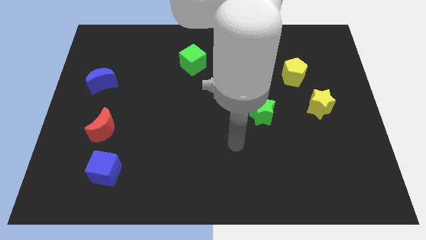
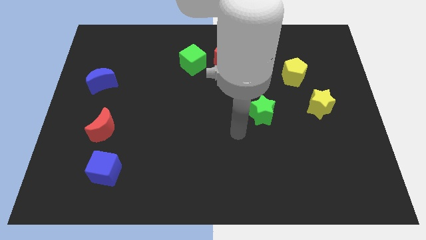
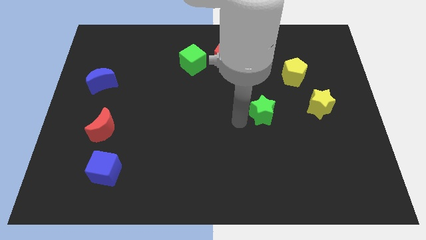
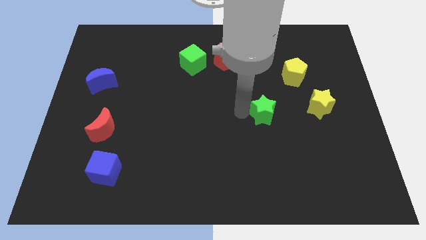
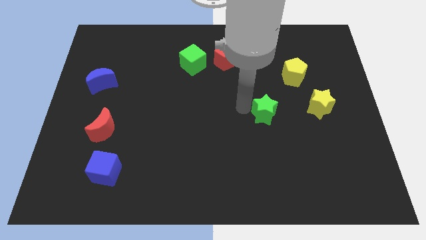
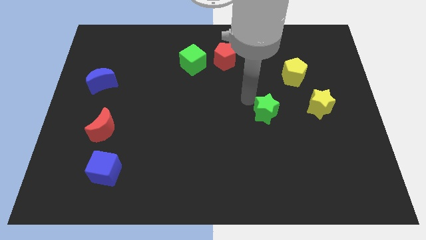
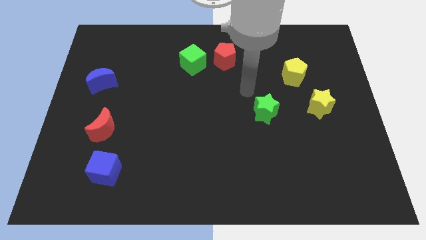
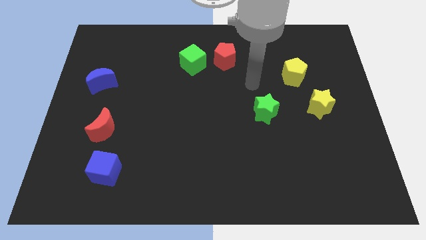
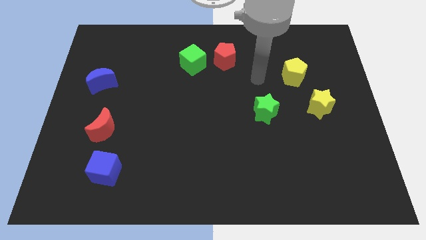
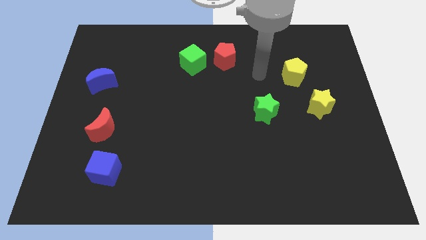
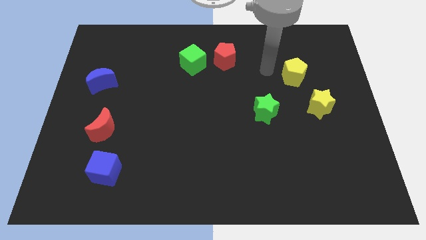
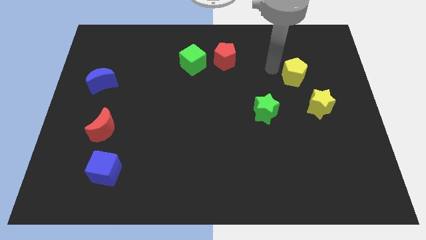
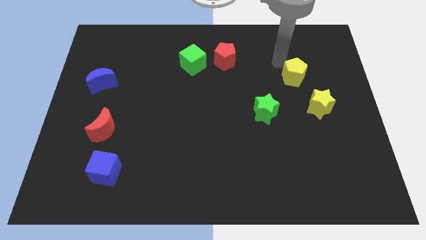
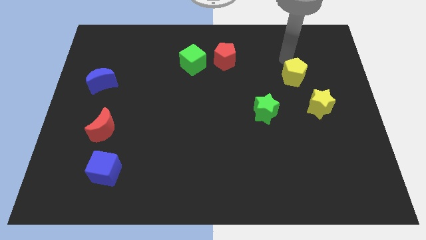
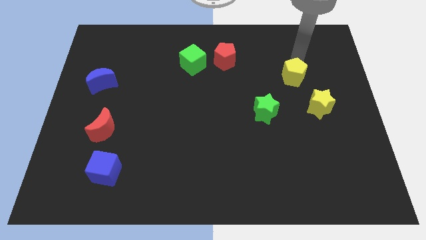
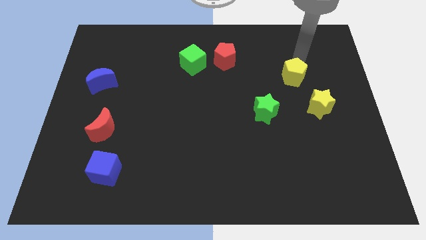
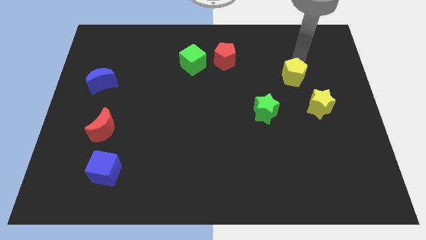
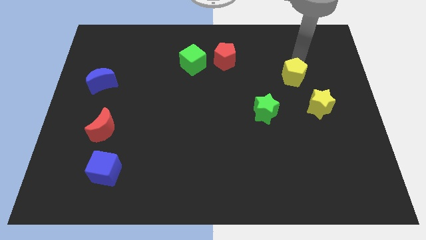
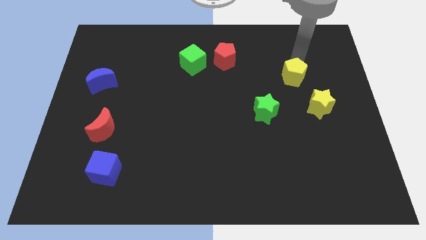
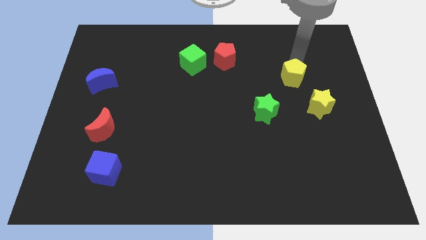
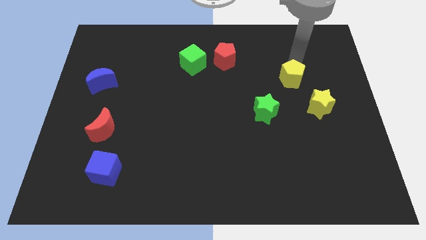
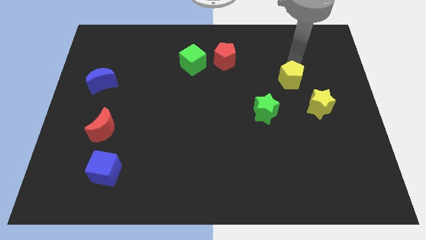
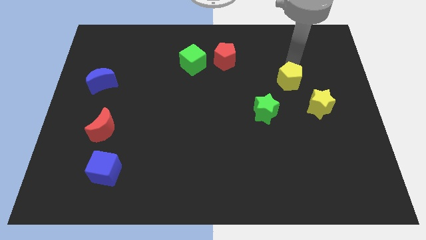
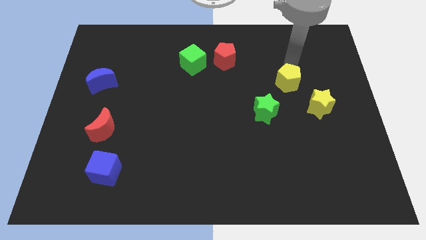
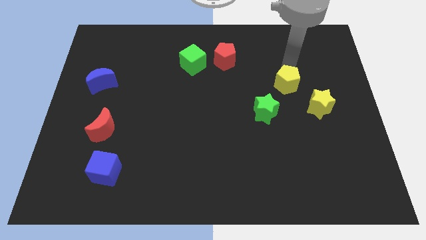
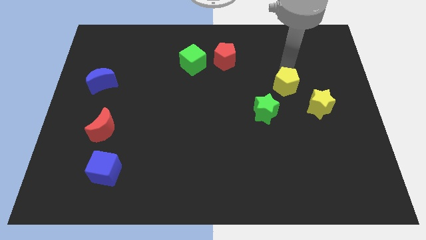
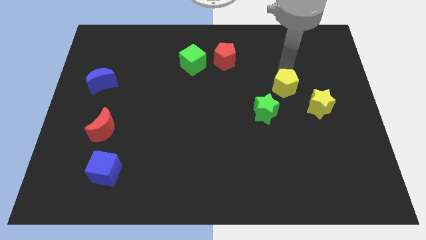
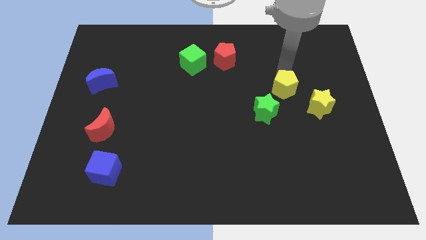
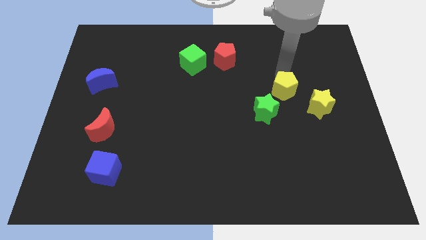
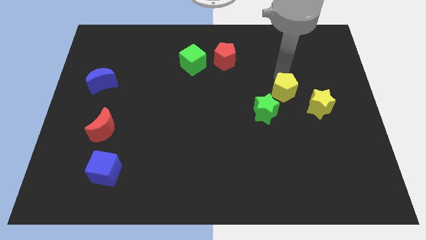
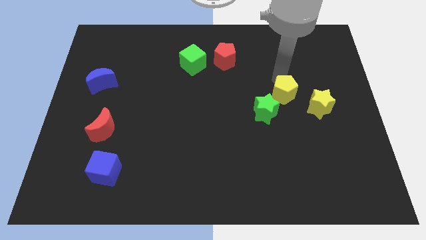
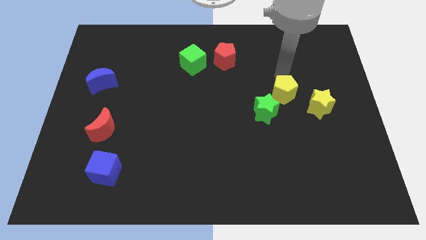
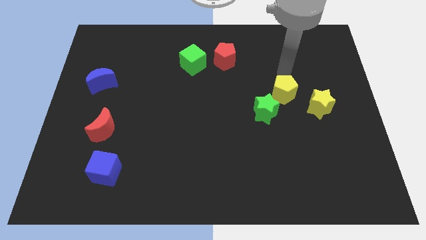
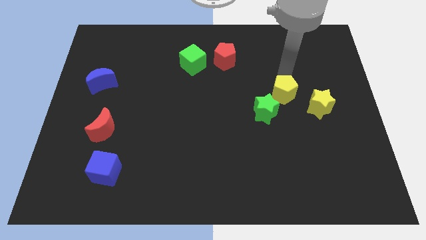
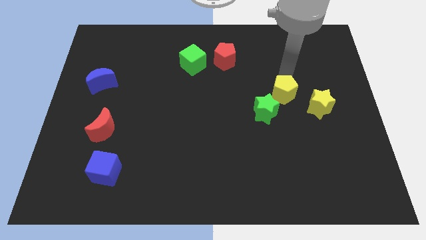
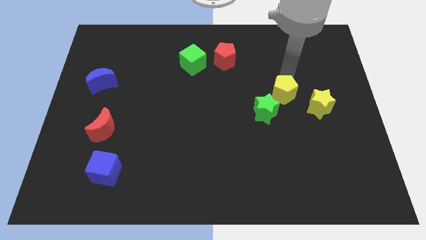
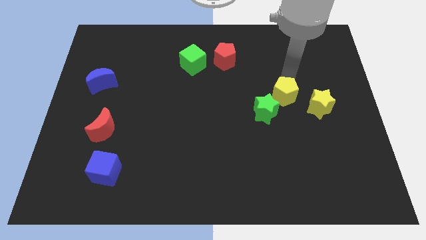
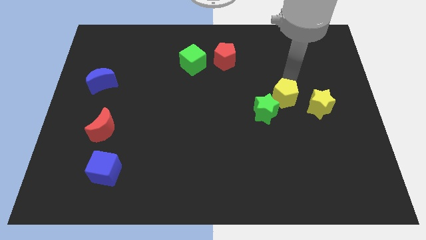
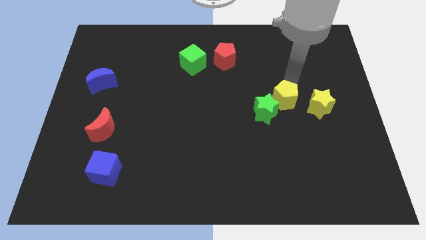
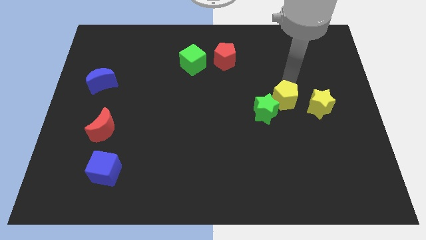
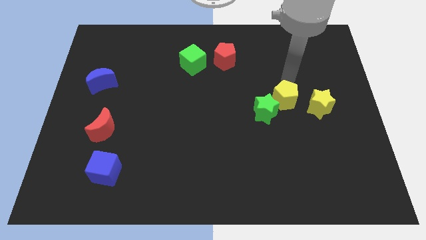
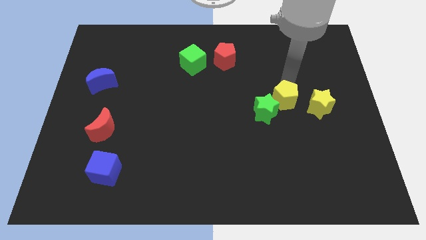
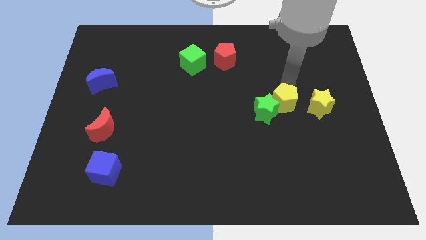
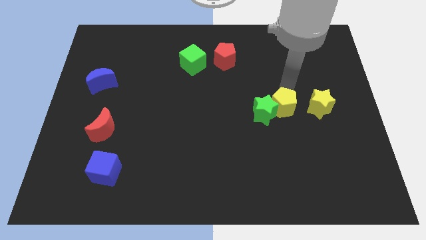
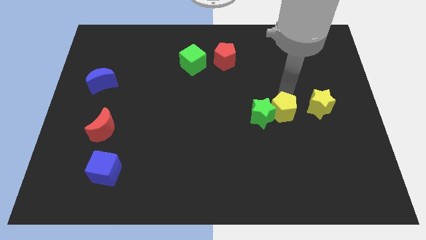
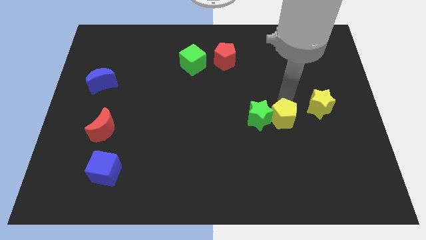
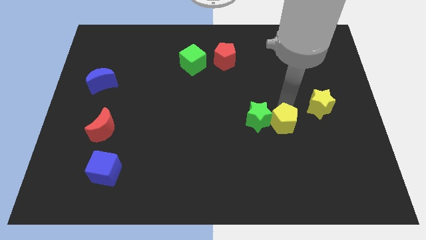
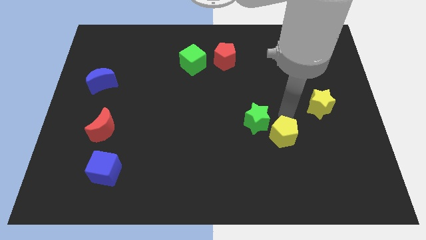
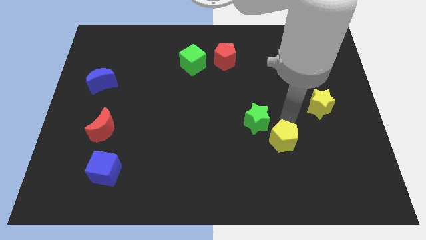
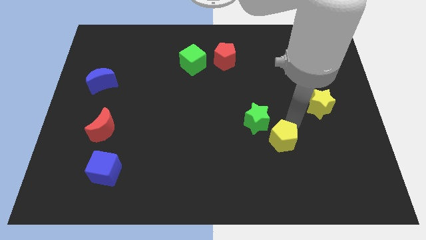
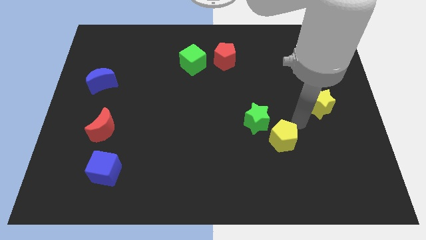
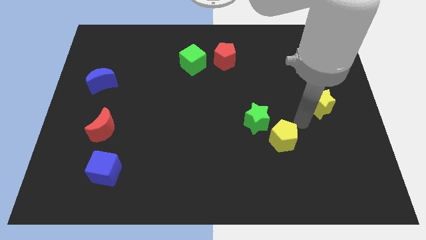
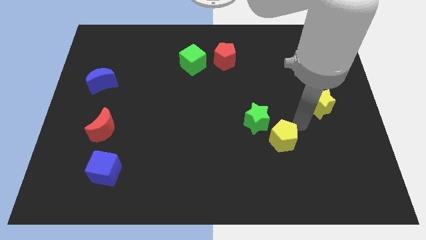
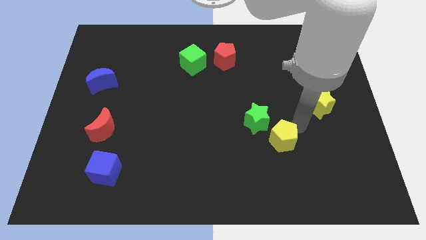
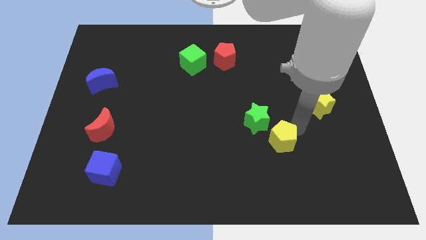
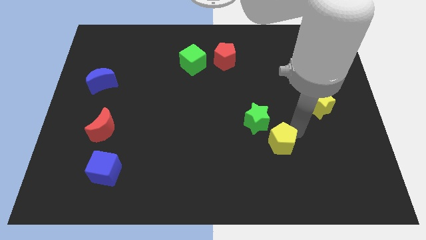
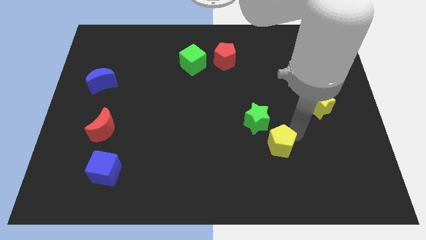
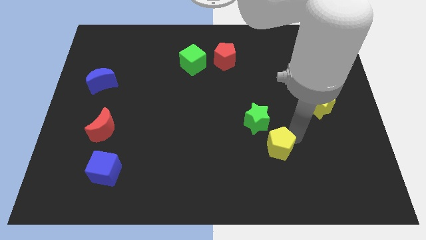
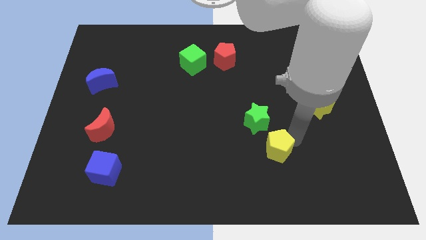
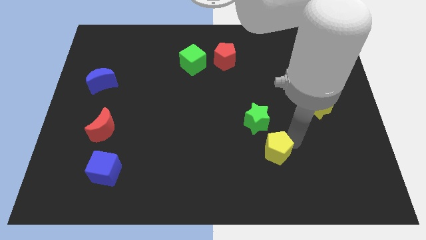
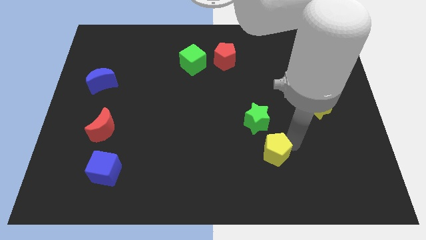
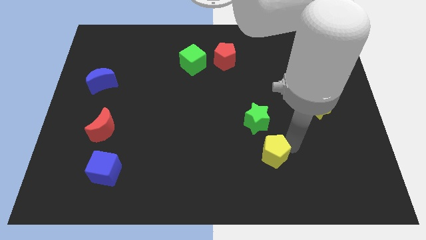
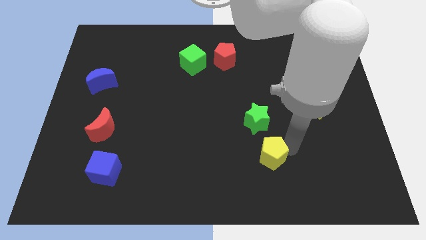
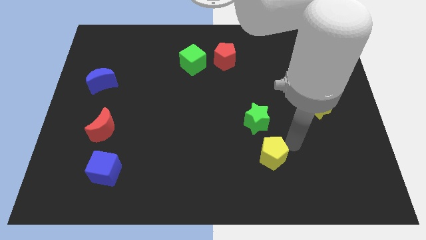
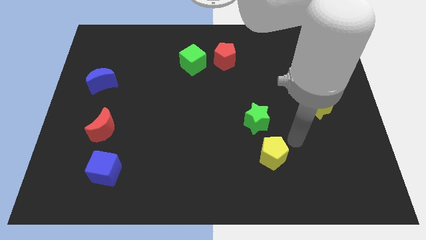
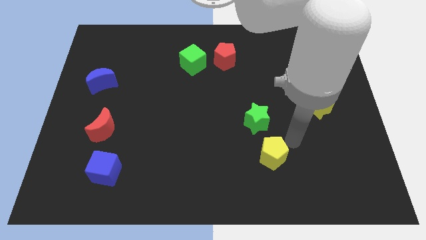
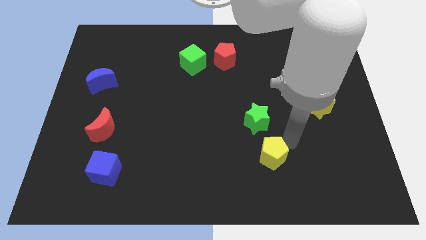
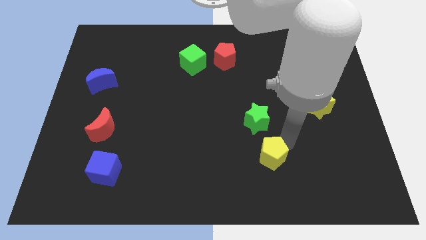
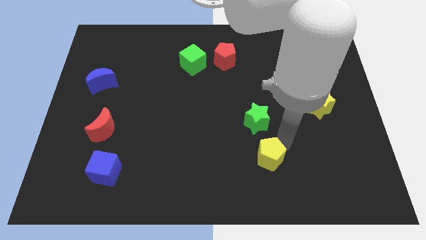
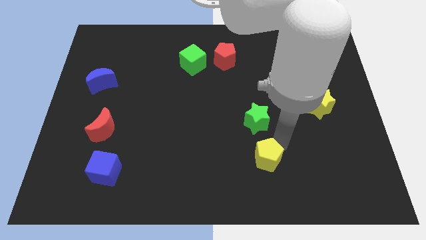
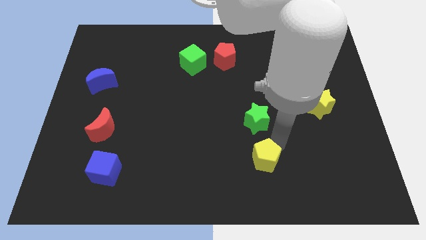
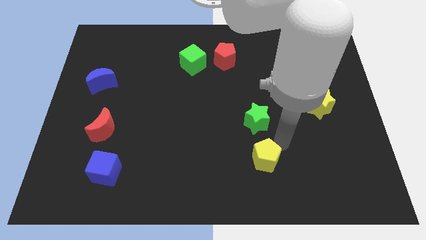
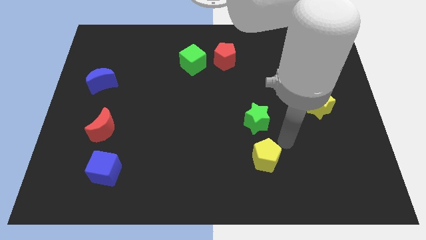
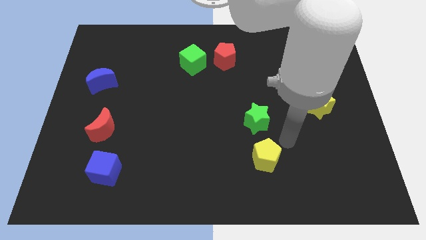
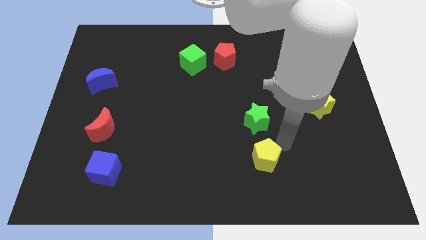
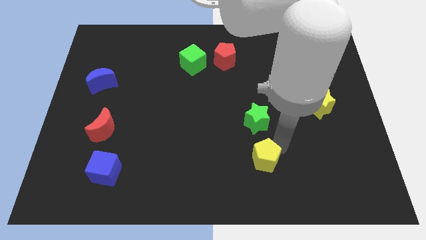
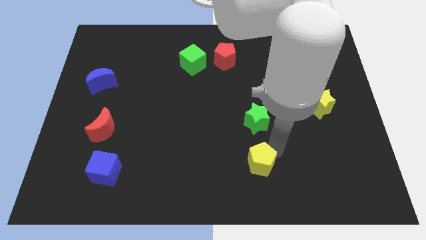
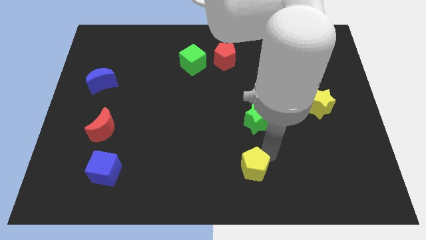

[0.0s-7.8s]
move the yellow pentagon to the bottom side
